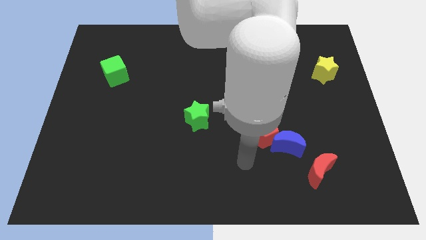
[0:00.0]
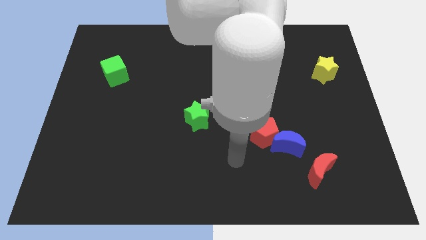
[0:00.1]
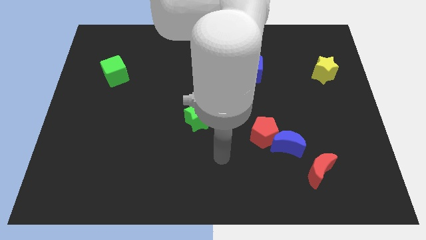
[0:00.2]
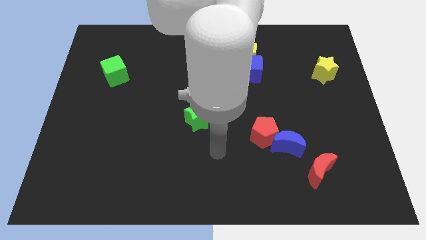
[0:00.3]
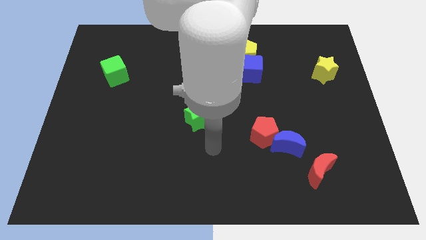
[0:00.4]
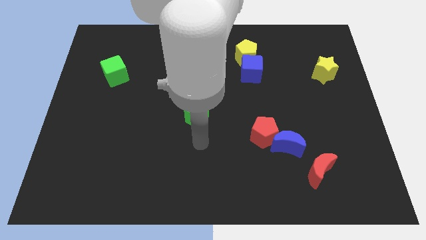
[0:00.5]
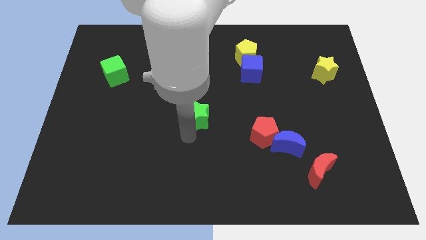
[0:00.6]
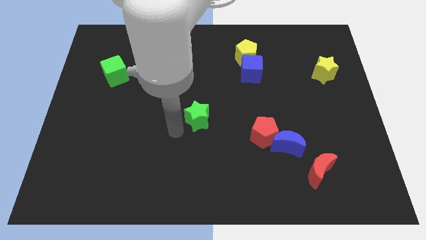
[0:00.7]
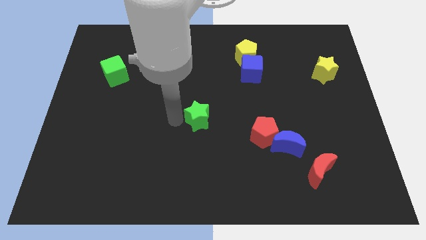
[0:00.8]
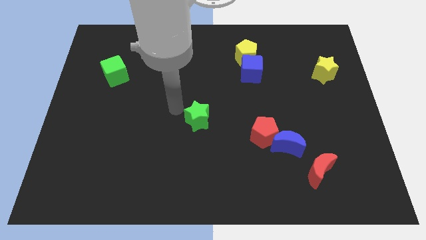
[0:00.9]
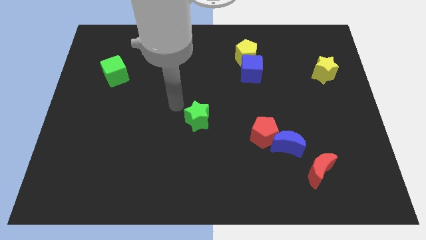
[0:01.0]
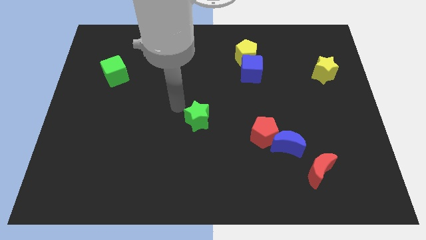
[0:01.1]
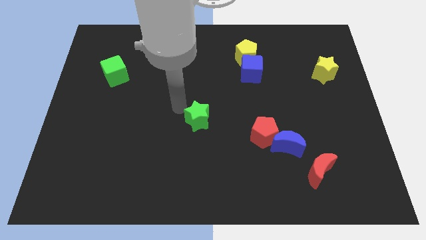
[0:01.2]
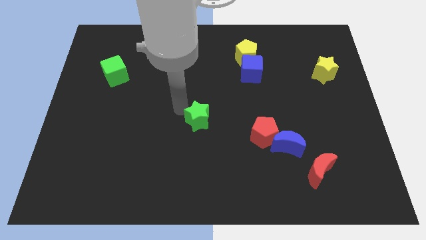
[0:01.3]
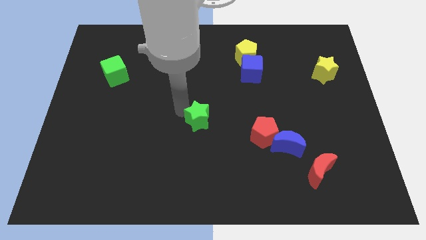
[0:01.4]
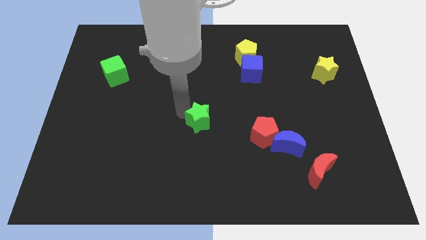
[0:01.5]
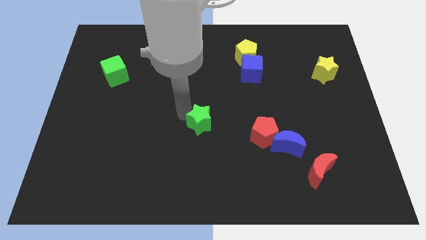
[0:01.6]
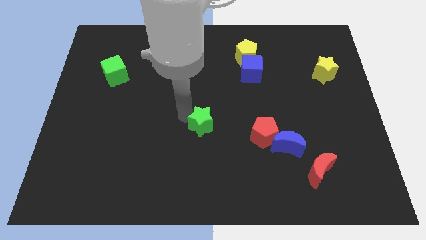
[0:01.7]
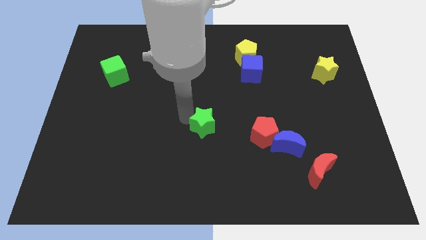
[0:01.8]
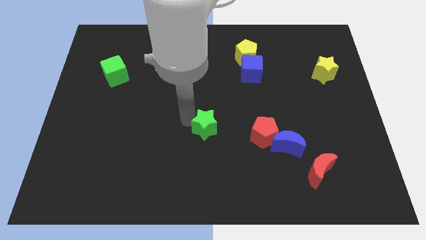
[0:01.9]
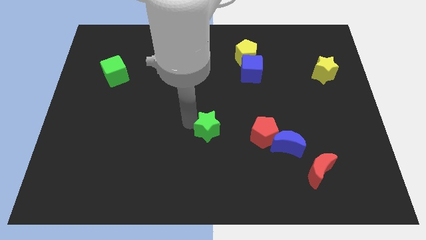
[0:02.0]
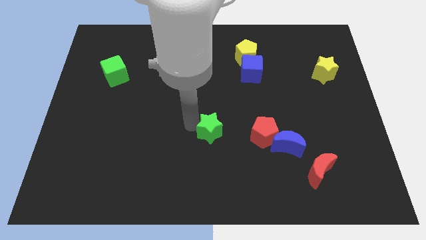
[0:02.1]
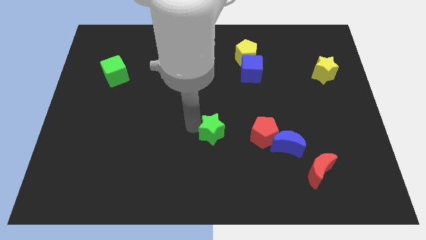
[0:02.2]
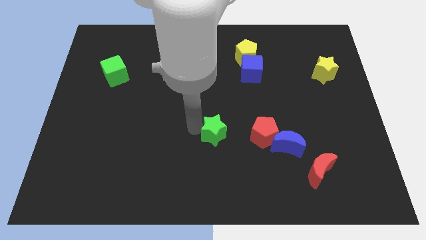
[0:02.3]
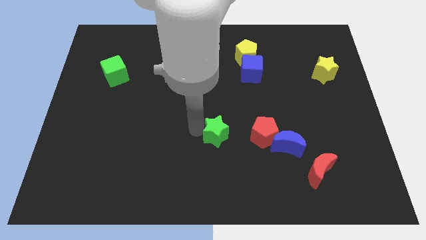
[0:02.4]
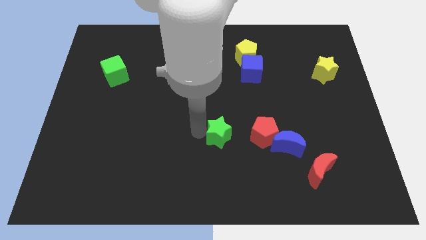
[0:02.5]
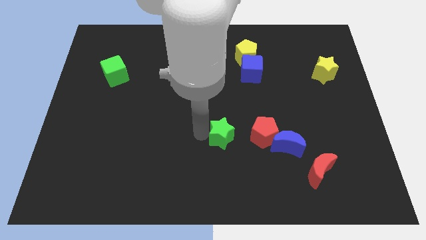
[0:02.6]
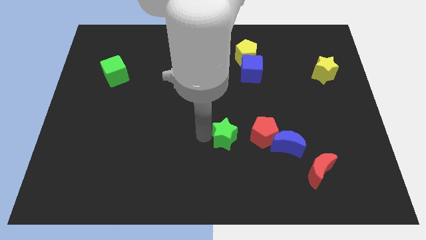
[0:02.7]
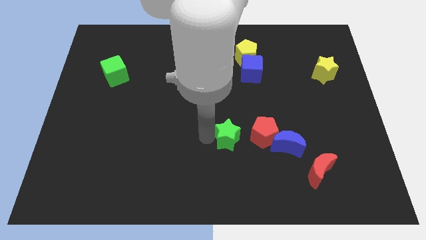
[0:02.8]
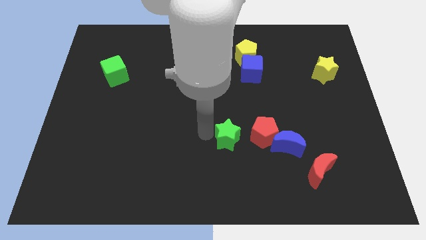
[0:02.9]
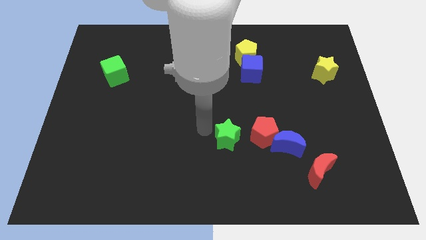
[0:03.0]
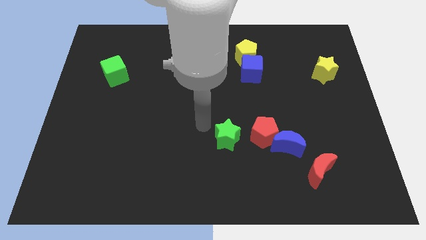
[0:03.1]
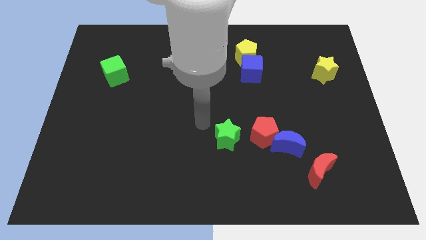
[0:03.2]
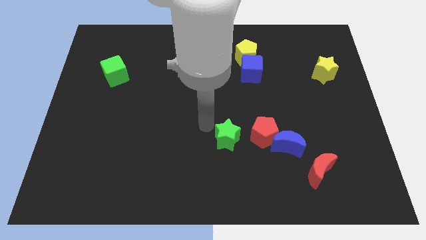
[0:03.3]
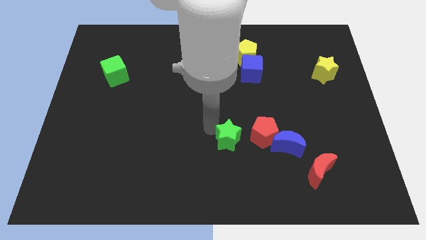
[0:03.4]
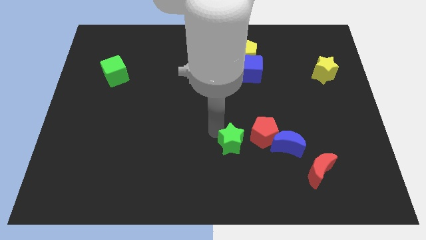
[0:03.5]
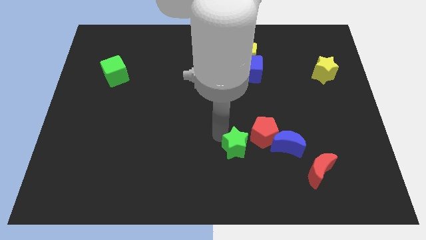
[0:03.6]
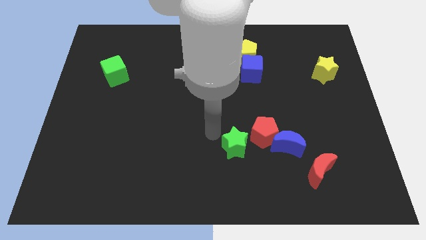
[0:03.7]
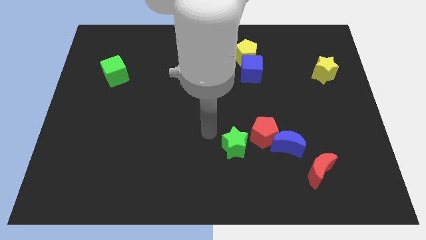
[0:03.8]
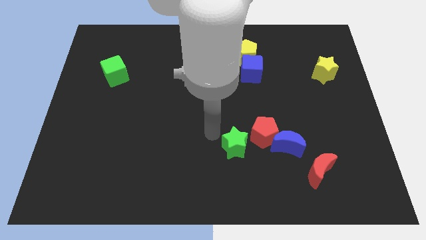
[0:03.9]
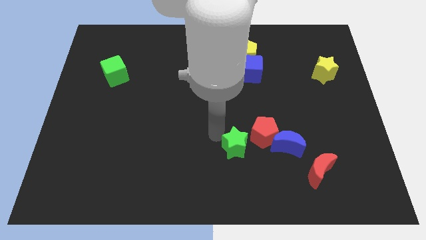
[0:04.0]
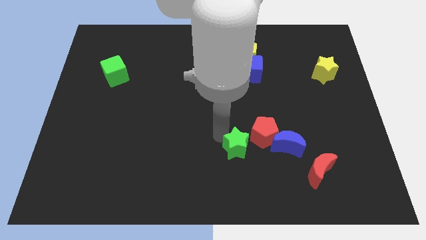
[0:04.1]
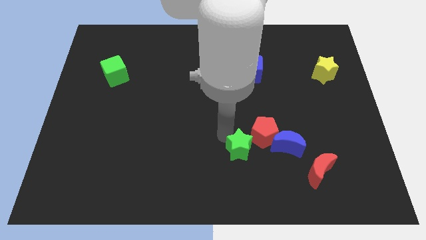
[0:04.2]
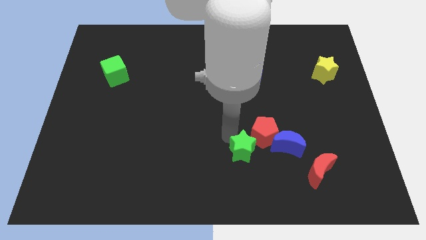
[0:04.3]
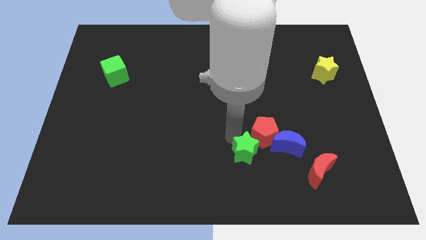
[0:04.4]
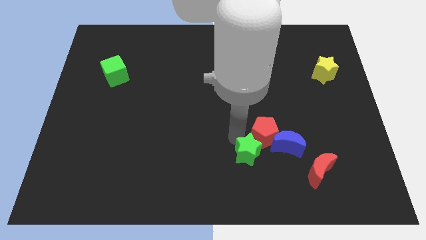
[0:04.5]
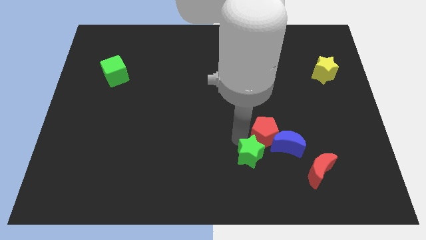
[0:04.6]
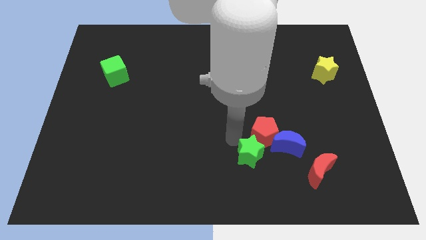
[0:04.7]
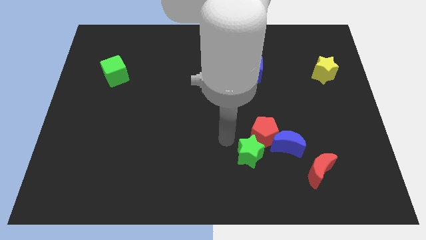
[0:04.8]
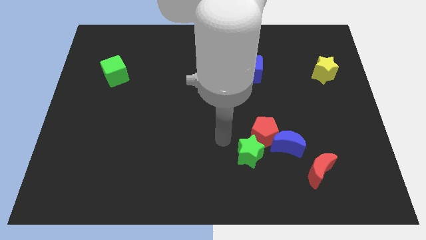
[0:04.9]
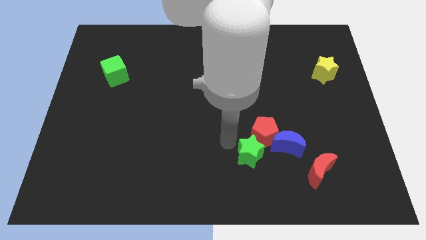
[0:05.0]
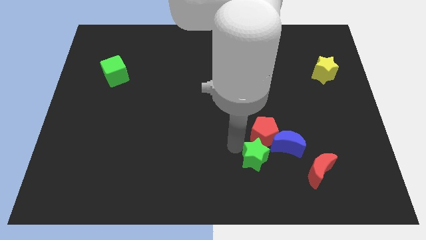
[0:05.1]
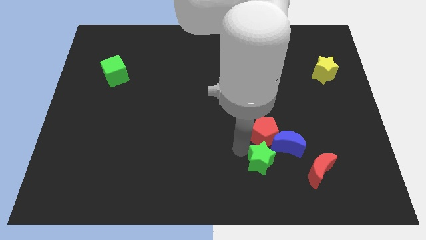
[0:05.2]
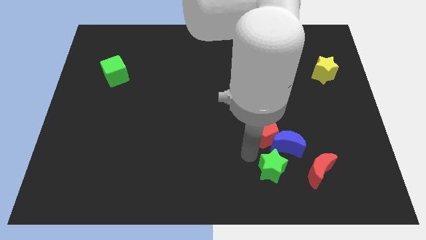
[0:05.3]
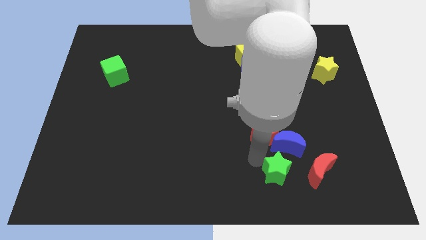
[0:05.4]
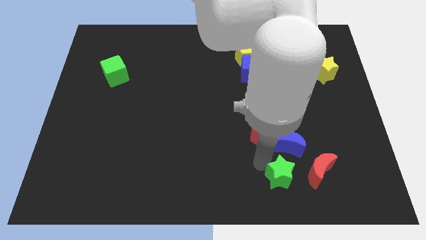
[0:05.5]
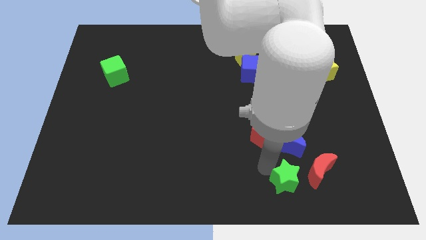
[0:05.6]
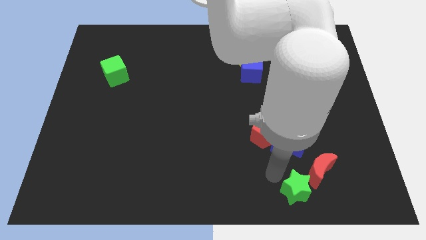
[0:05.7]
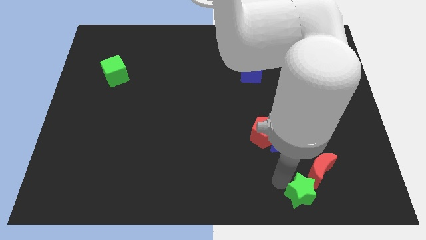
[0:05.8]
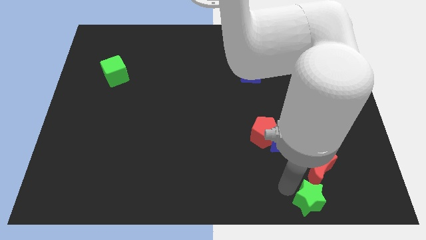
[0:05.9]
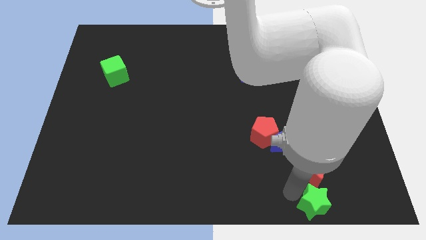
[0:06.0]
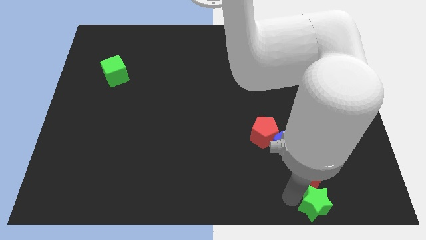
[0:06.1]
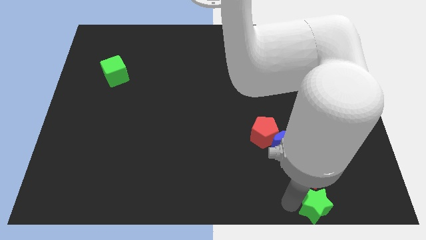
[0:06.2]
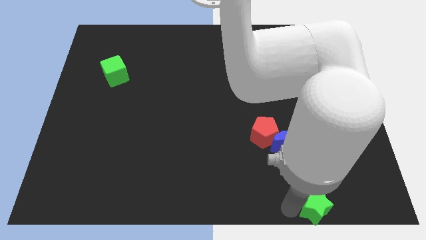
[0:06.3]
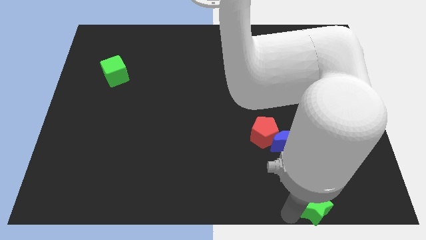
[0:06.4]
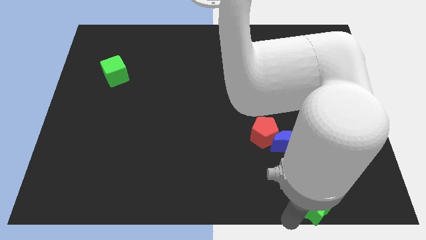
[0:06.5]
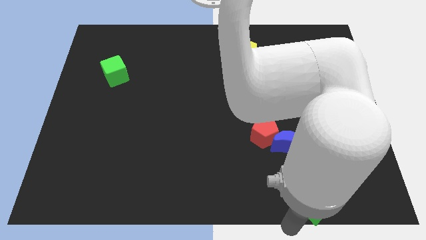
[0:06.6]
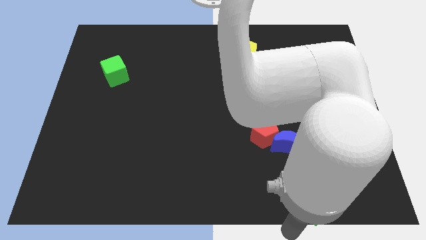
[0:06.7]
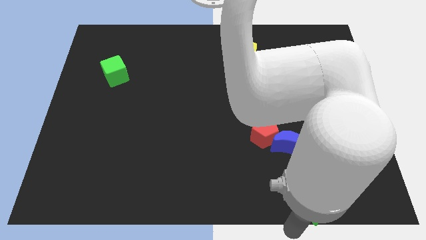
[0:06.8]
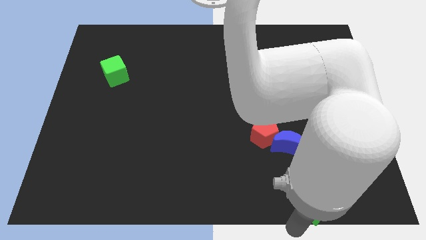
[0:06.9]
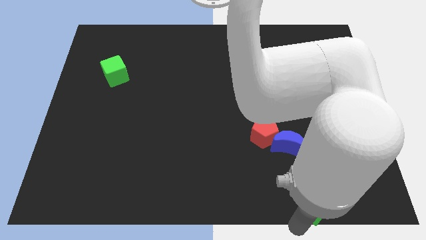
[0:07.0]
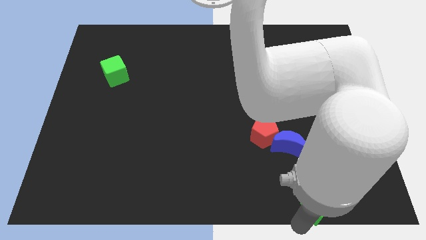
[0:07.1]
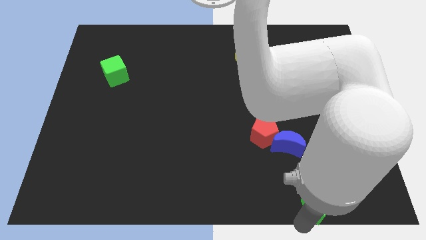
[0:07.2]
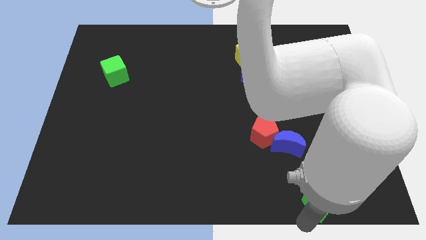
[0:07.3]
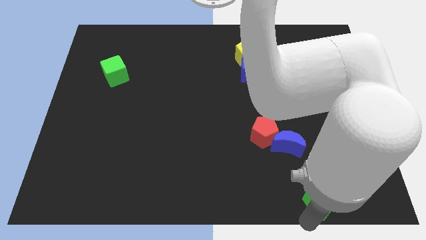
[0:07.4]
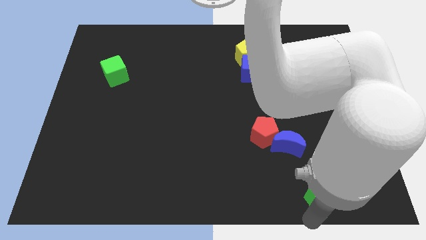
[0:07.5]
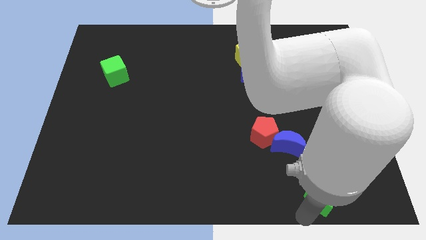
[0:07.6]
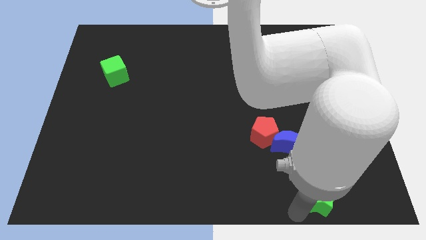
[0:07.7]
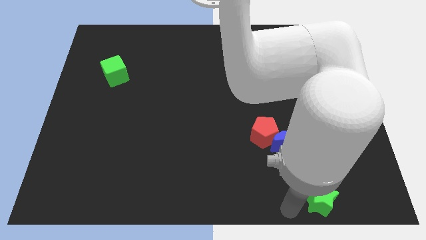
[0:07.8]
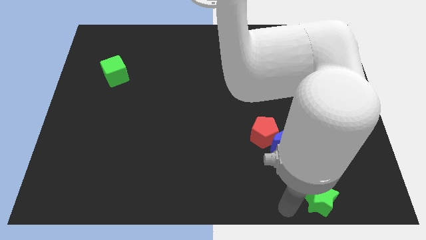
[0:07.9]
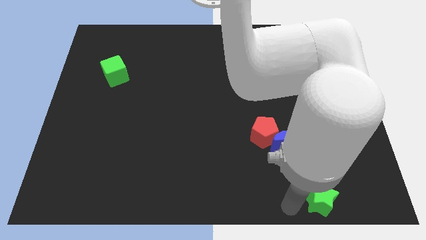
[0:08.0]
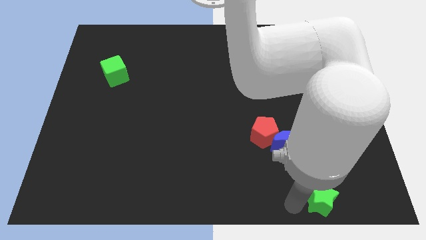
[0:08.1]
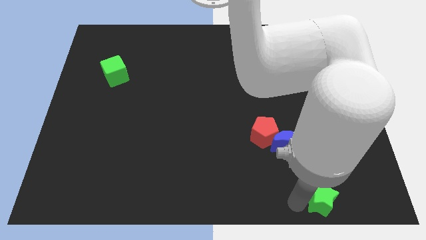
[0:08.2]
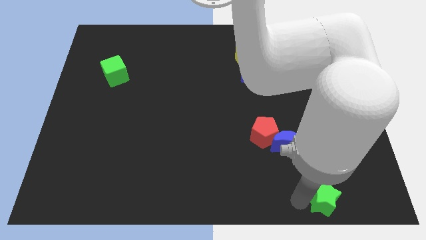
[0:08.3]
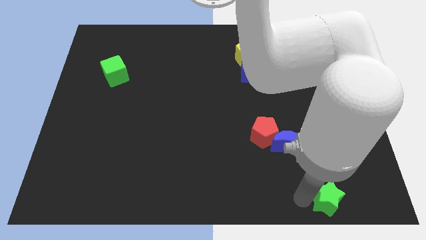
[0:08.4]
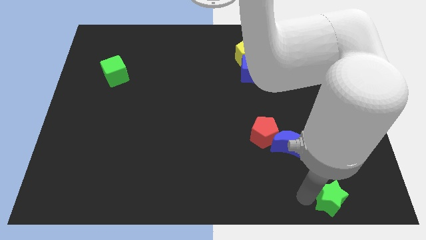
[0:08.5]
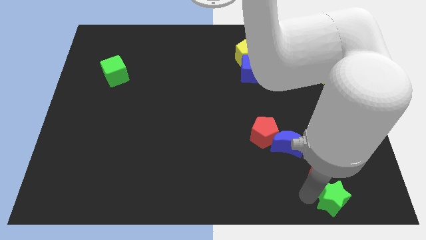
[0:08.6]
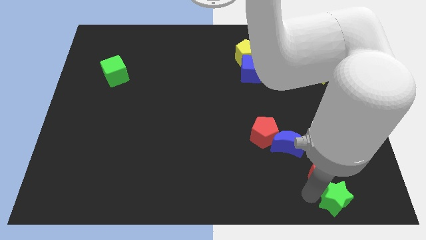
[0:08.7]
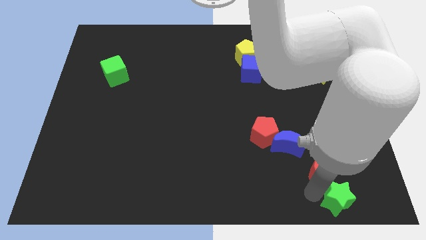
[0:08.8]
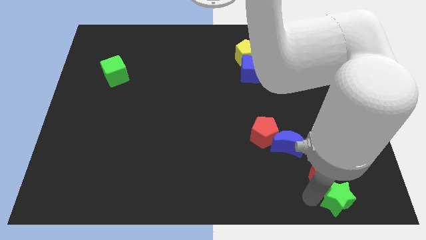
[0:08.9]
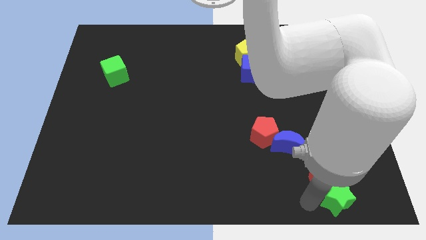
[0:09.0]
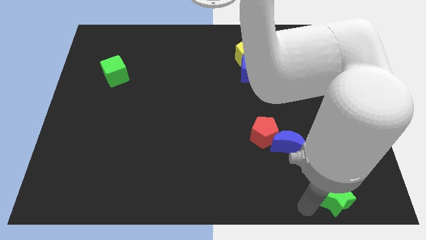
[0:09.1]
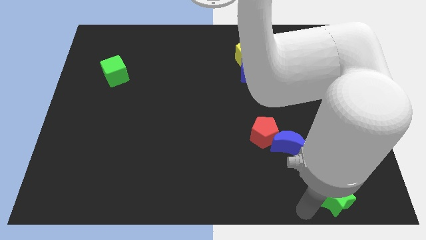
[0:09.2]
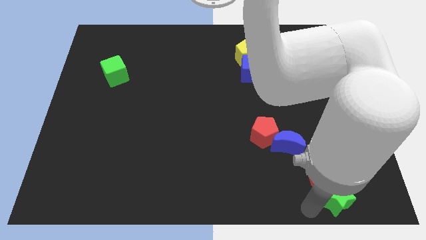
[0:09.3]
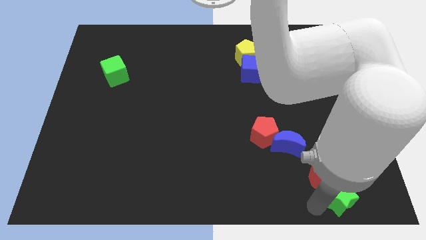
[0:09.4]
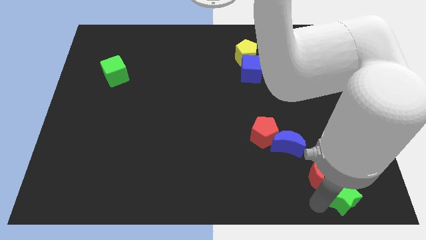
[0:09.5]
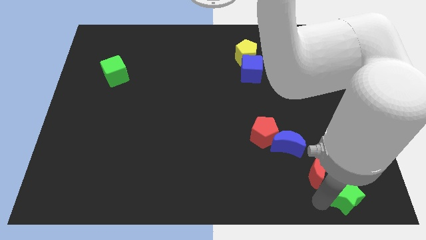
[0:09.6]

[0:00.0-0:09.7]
push the green star to the lower right corner
